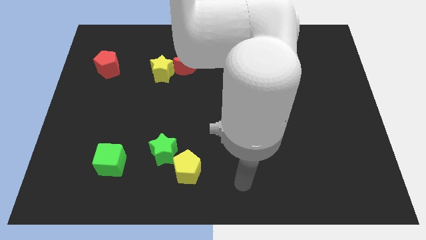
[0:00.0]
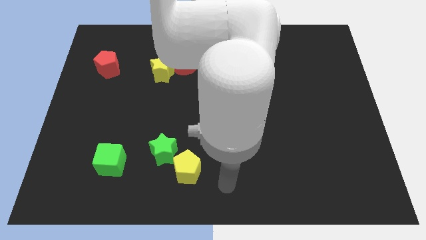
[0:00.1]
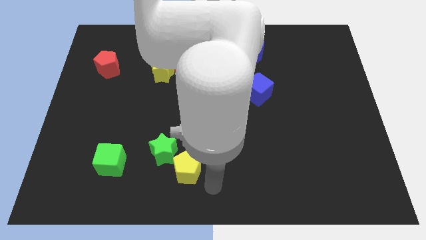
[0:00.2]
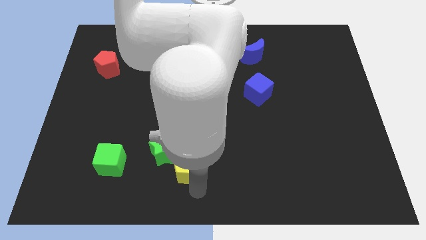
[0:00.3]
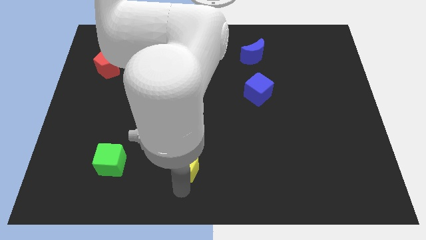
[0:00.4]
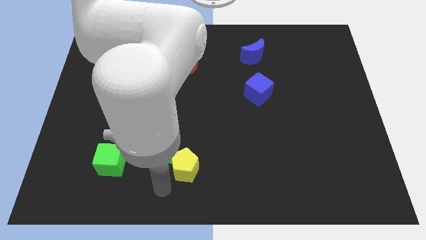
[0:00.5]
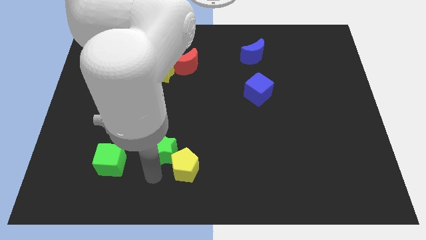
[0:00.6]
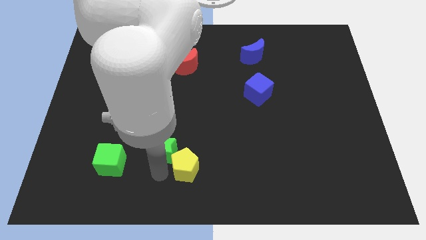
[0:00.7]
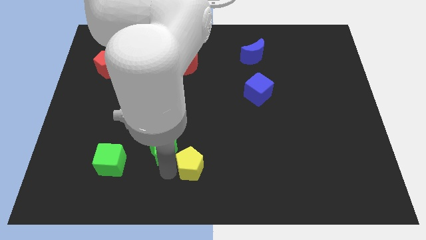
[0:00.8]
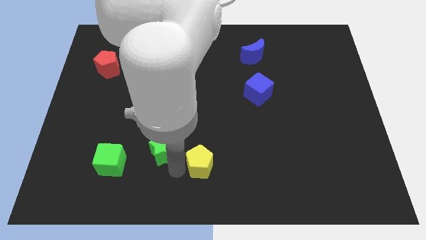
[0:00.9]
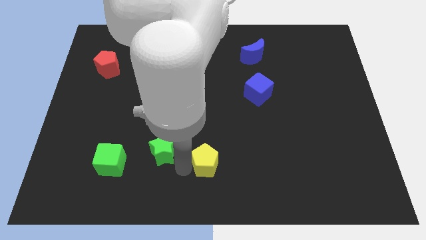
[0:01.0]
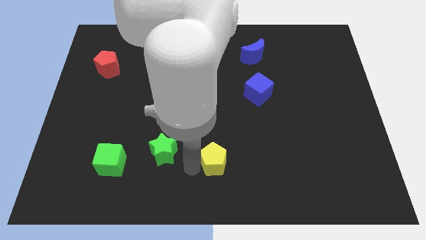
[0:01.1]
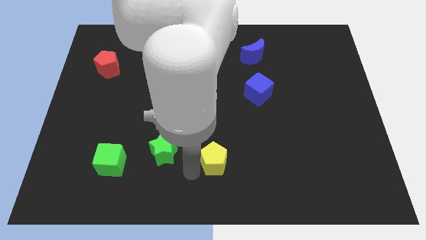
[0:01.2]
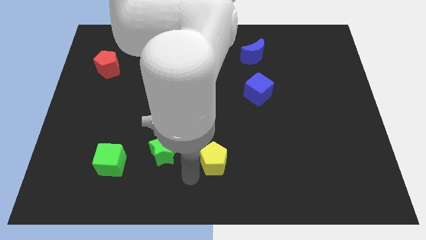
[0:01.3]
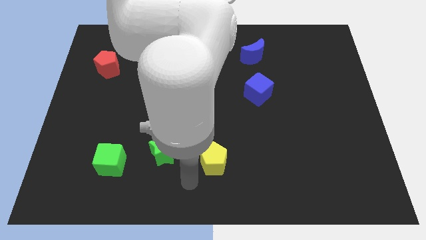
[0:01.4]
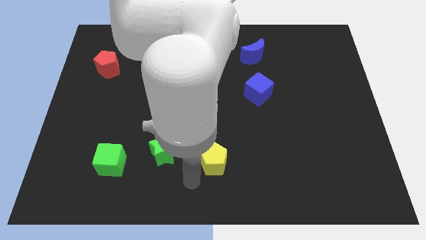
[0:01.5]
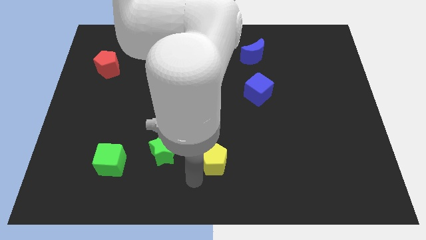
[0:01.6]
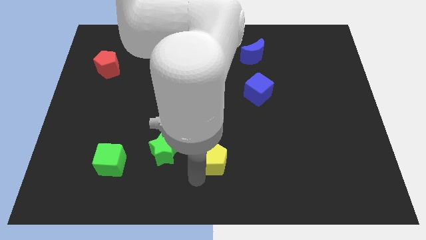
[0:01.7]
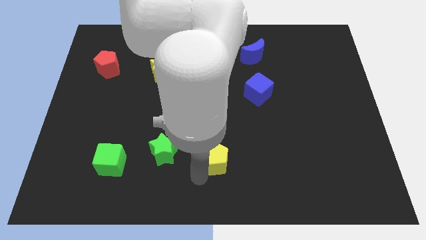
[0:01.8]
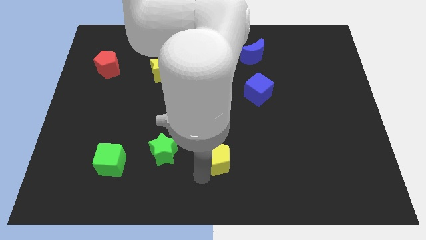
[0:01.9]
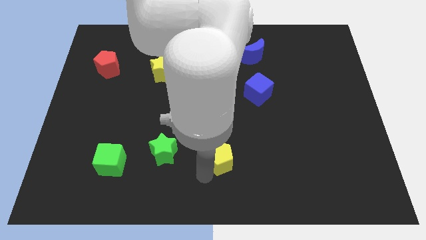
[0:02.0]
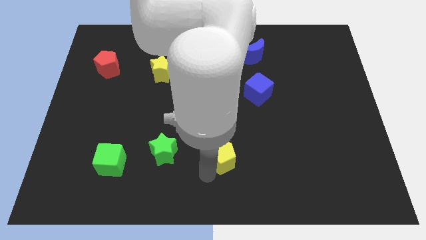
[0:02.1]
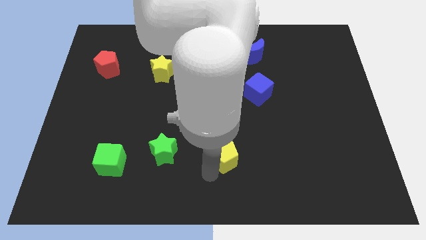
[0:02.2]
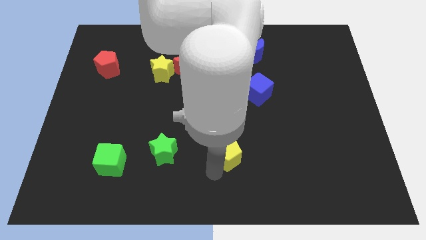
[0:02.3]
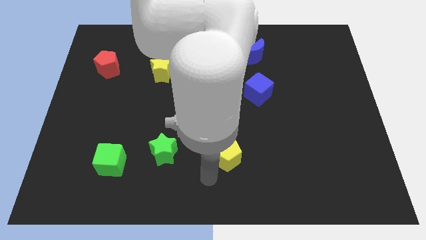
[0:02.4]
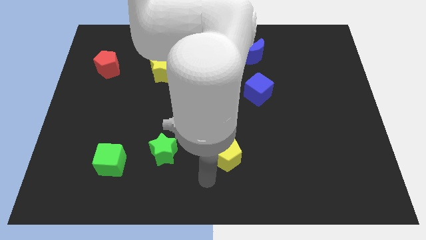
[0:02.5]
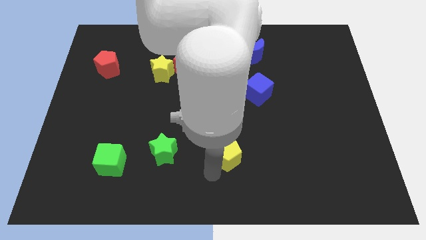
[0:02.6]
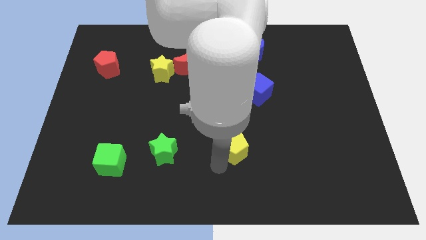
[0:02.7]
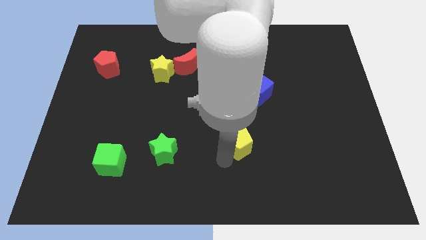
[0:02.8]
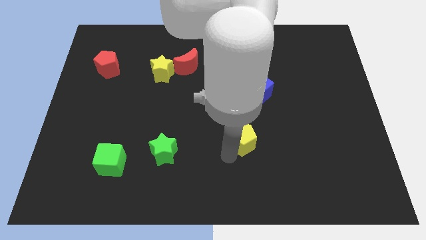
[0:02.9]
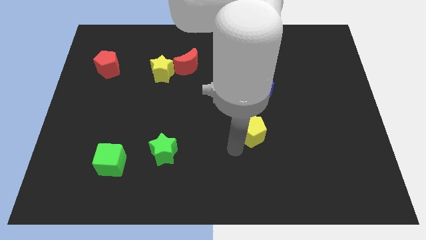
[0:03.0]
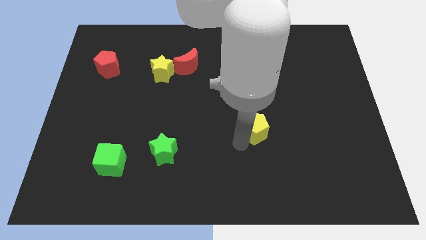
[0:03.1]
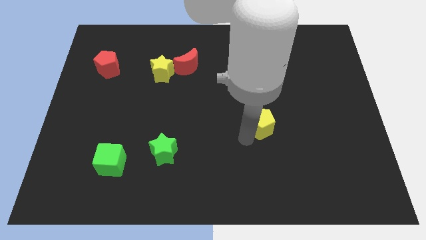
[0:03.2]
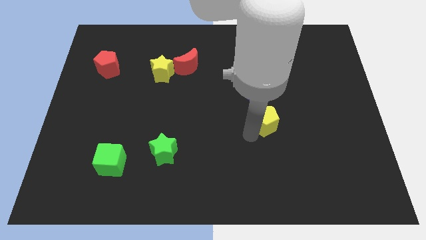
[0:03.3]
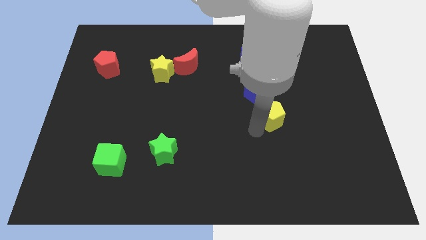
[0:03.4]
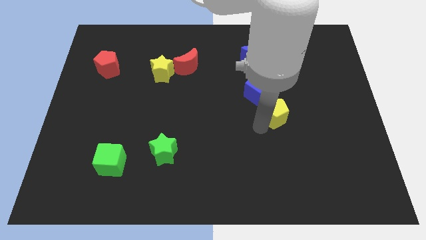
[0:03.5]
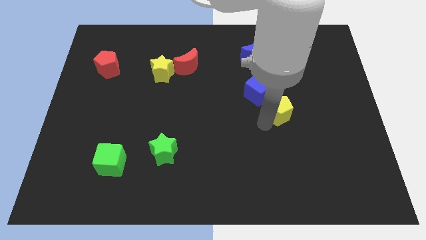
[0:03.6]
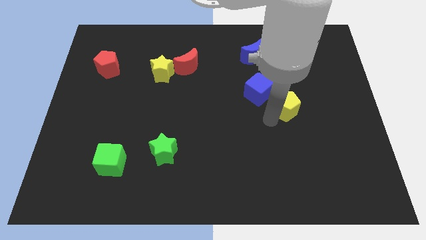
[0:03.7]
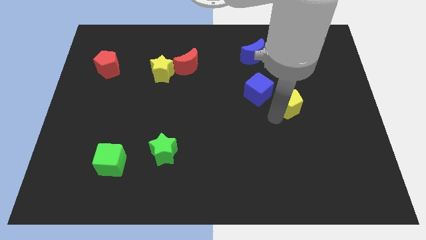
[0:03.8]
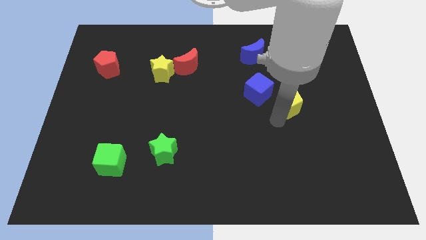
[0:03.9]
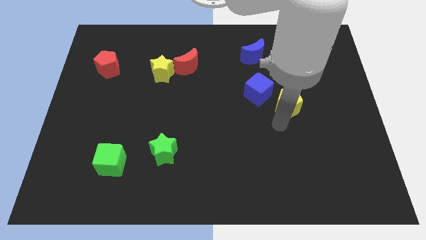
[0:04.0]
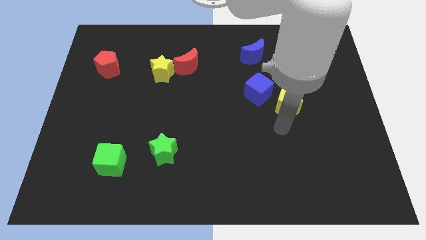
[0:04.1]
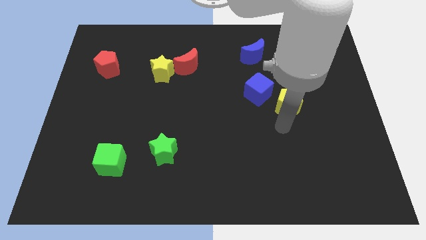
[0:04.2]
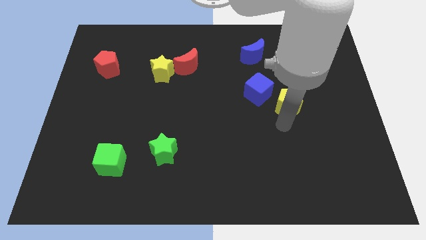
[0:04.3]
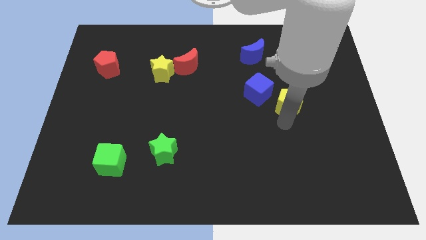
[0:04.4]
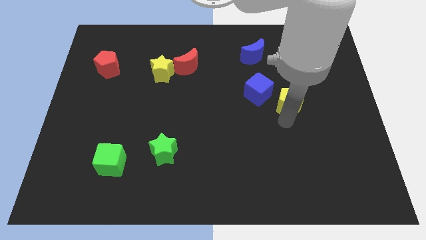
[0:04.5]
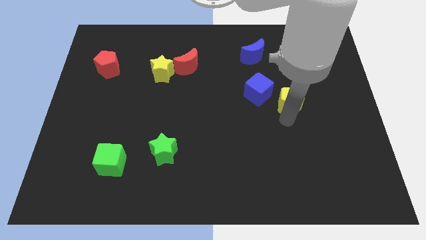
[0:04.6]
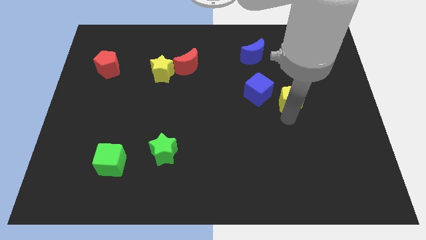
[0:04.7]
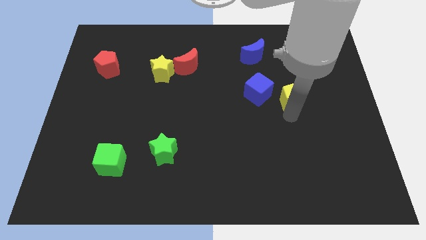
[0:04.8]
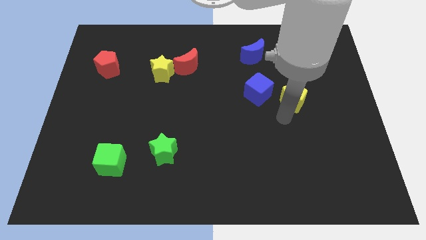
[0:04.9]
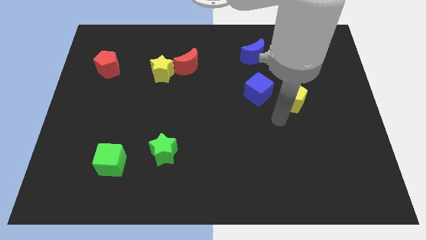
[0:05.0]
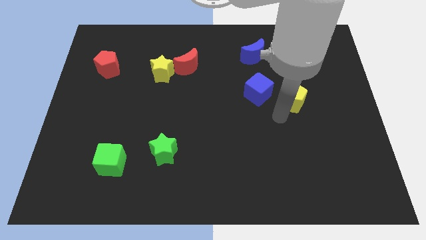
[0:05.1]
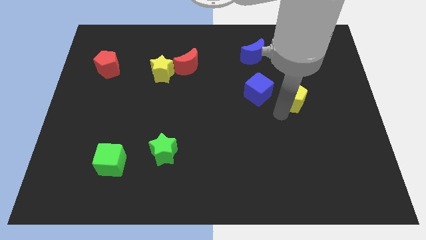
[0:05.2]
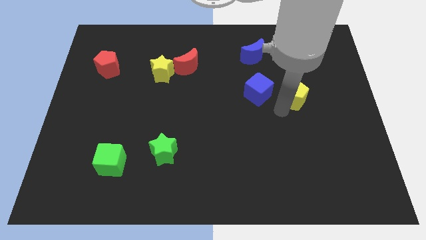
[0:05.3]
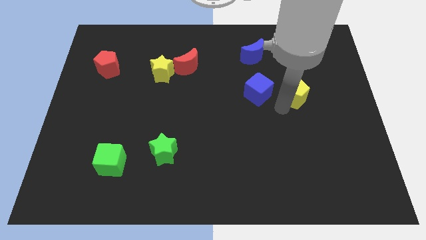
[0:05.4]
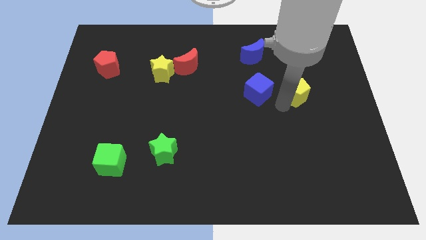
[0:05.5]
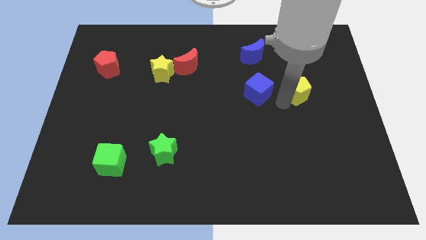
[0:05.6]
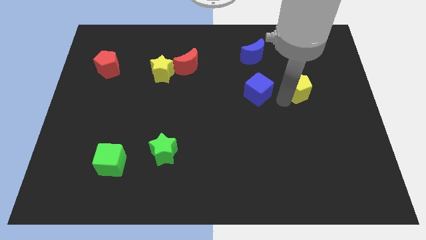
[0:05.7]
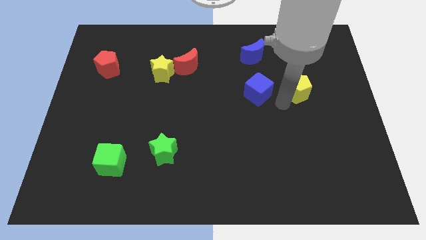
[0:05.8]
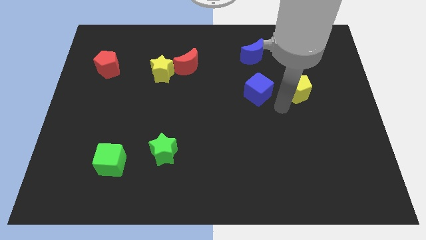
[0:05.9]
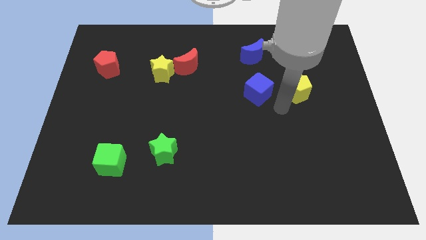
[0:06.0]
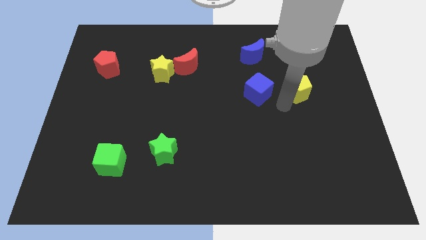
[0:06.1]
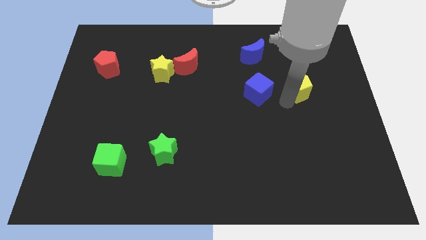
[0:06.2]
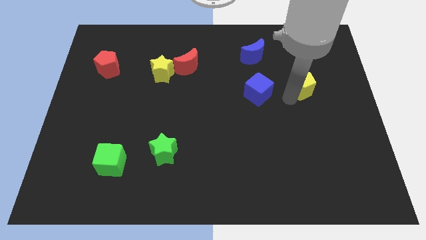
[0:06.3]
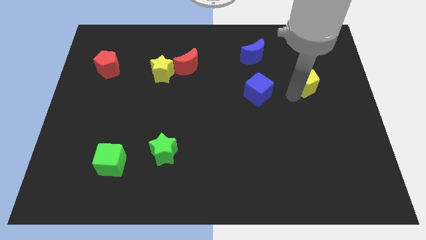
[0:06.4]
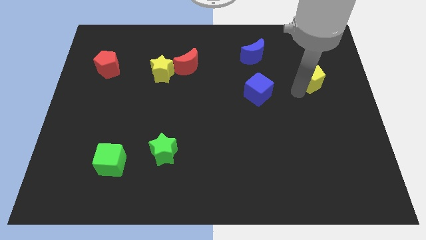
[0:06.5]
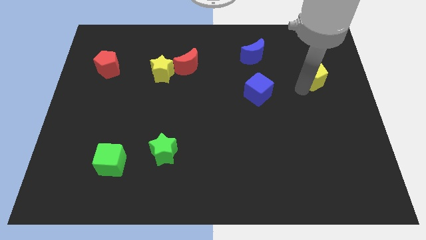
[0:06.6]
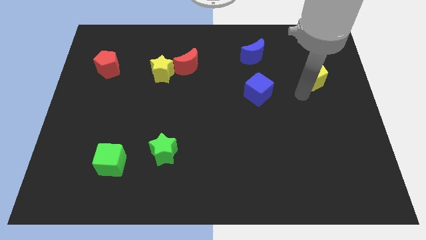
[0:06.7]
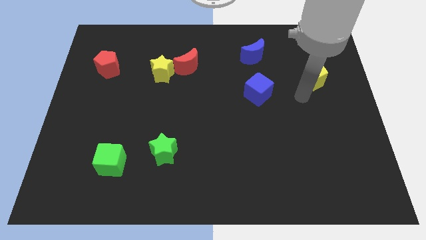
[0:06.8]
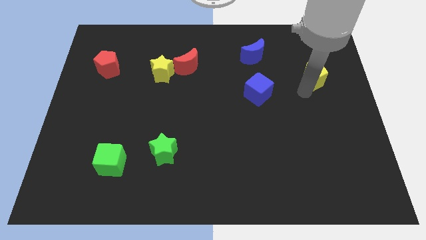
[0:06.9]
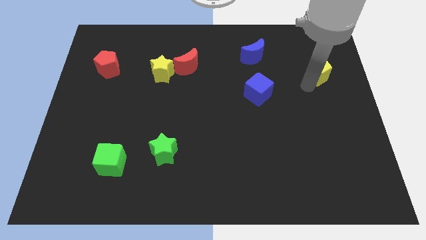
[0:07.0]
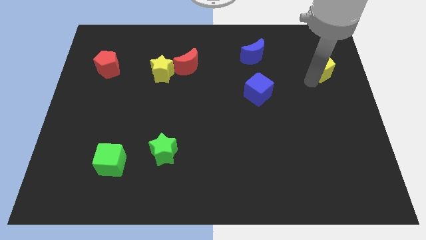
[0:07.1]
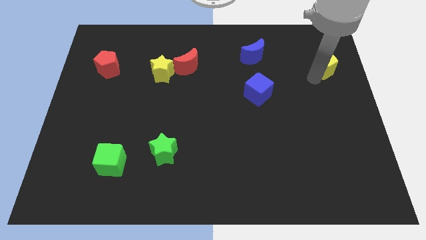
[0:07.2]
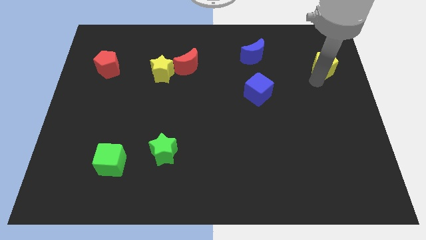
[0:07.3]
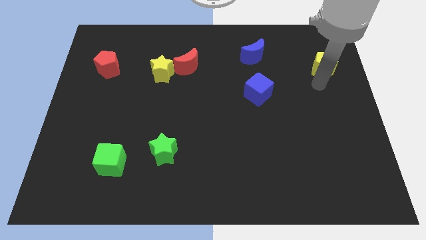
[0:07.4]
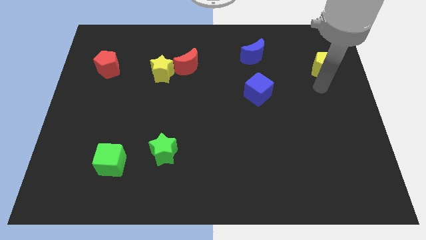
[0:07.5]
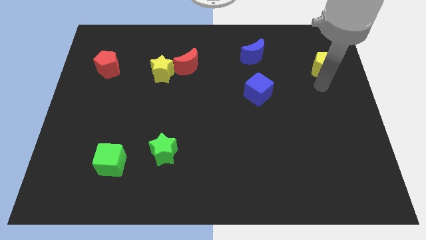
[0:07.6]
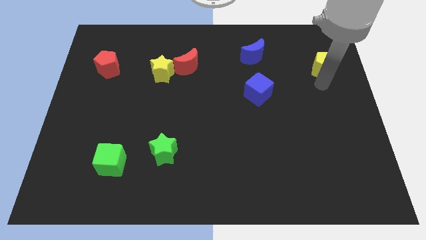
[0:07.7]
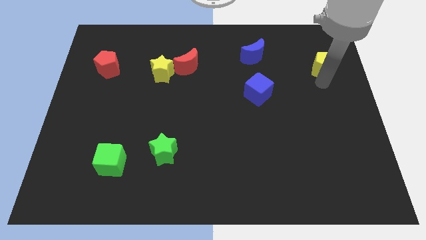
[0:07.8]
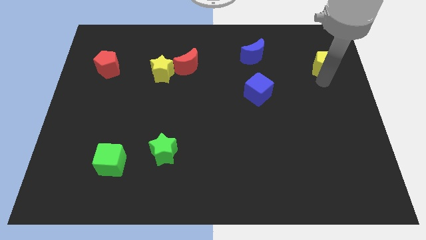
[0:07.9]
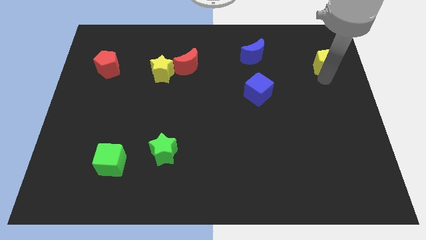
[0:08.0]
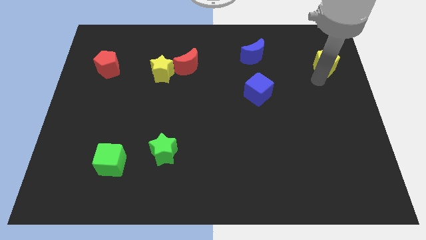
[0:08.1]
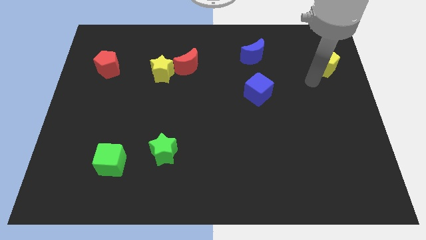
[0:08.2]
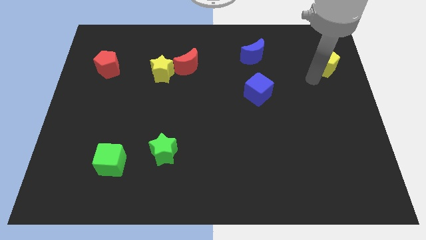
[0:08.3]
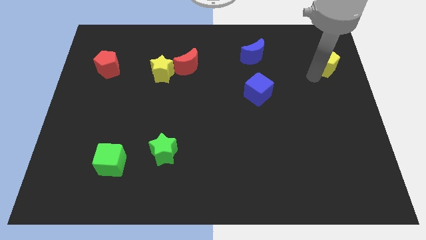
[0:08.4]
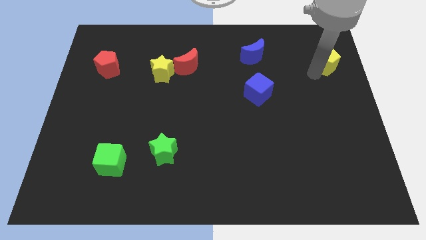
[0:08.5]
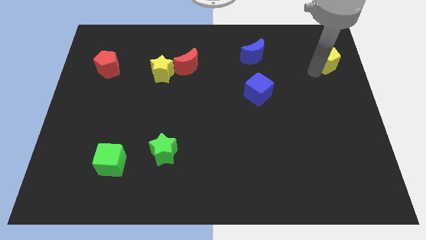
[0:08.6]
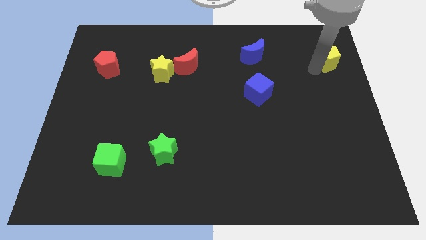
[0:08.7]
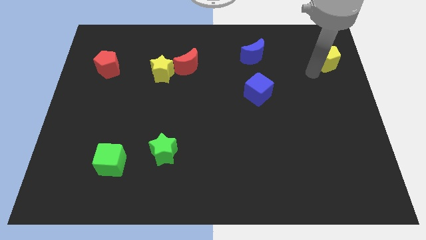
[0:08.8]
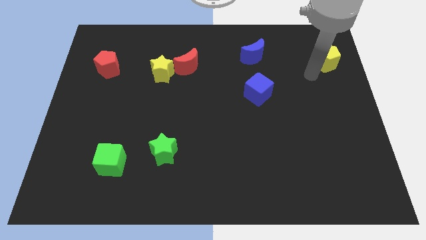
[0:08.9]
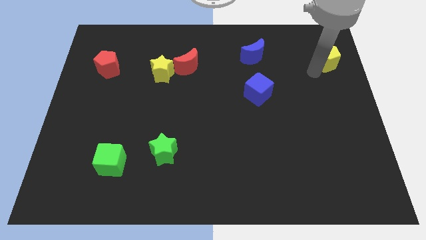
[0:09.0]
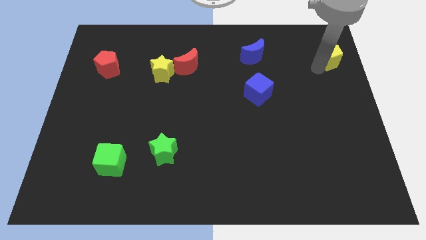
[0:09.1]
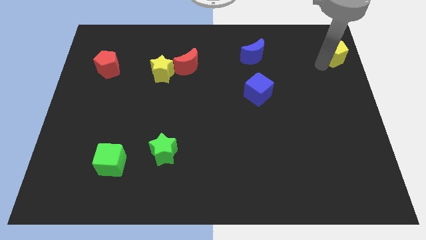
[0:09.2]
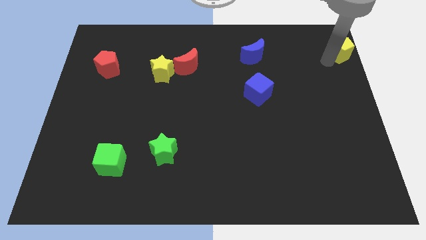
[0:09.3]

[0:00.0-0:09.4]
put the yellow pentagon to the top right
